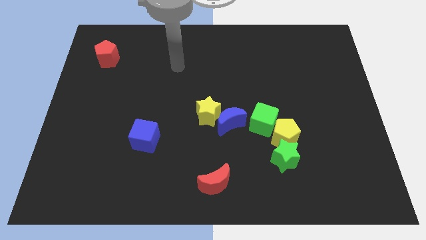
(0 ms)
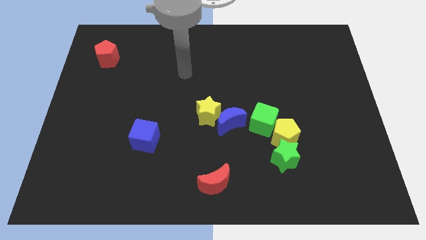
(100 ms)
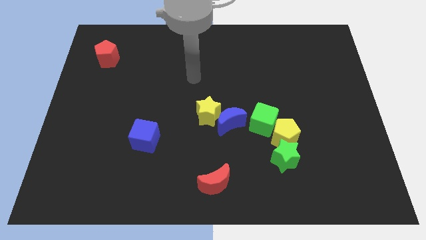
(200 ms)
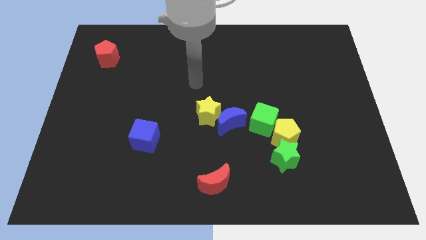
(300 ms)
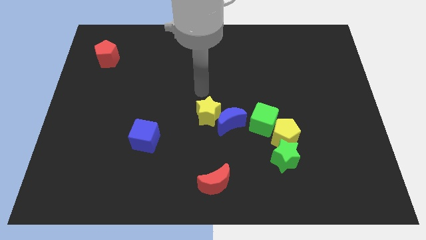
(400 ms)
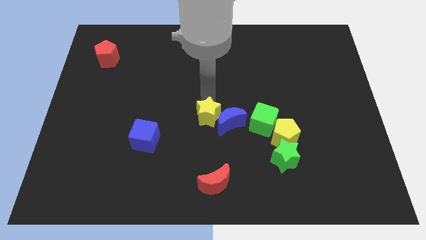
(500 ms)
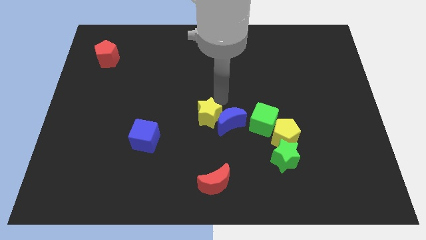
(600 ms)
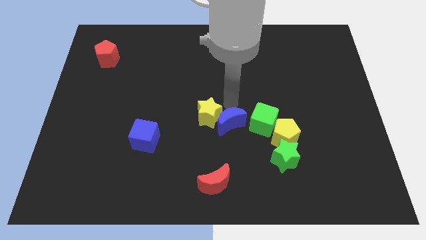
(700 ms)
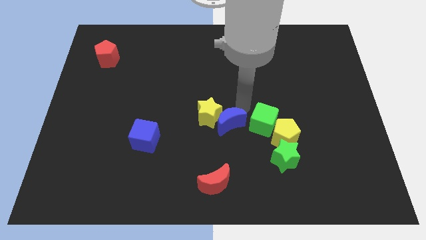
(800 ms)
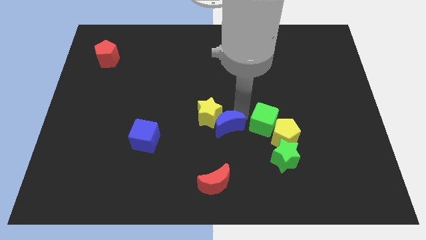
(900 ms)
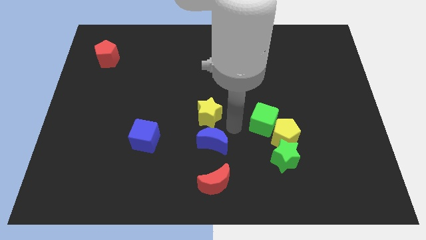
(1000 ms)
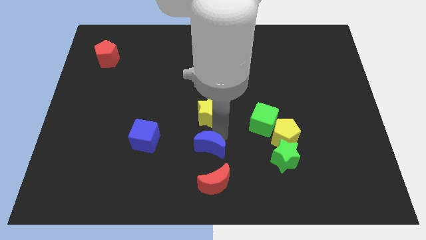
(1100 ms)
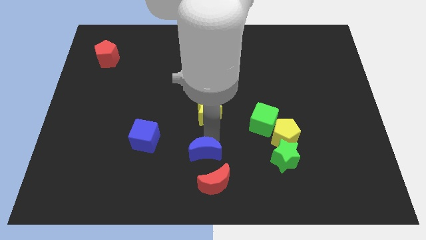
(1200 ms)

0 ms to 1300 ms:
separate the yellow star from the blue moon

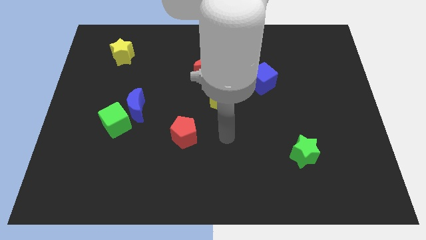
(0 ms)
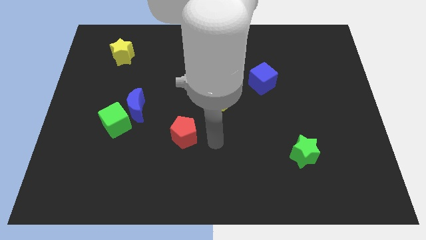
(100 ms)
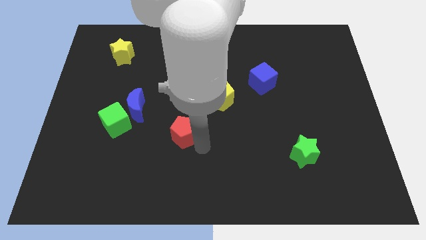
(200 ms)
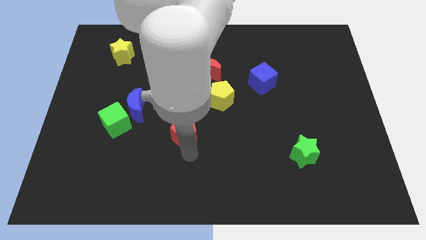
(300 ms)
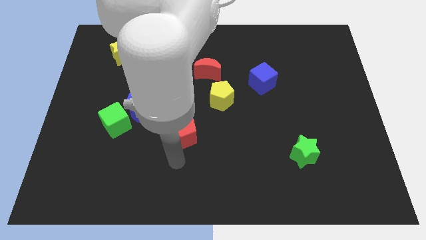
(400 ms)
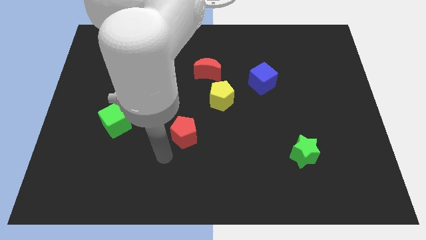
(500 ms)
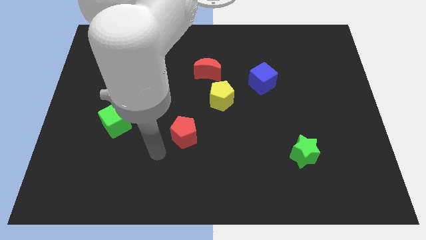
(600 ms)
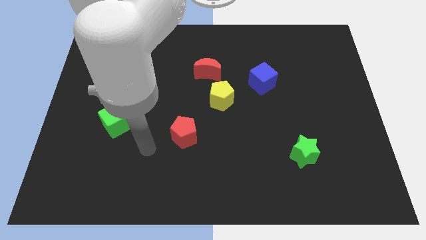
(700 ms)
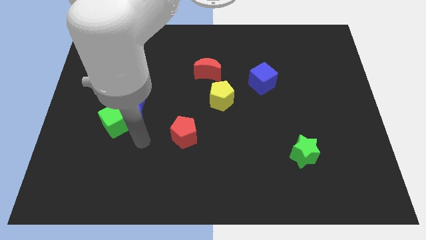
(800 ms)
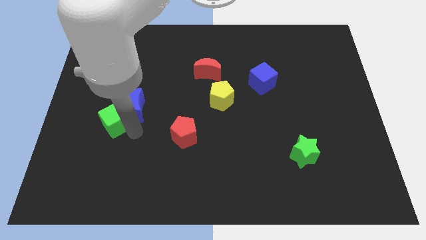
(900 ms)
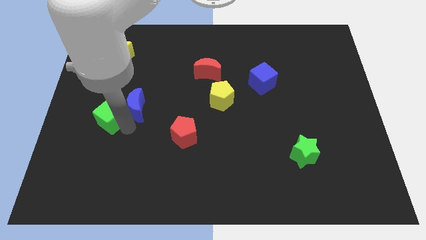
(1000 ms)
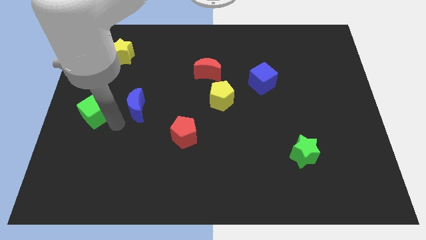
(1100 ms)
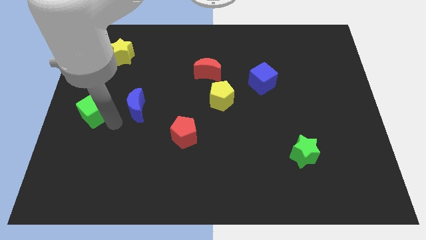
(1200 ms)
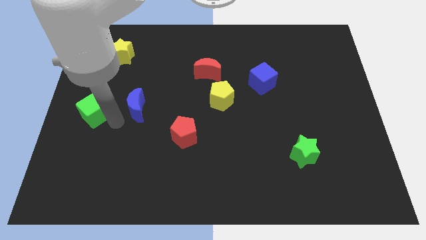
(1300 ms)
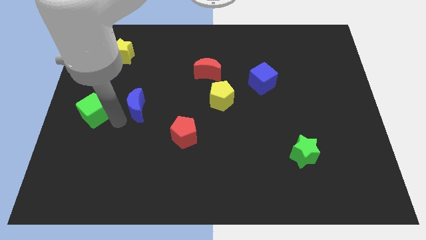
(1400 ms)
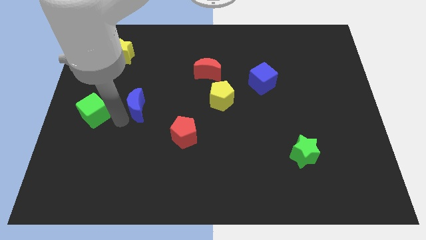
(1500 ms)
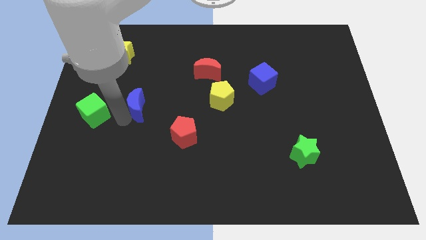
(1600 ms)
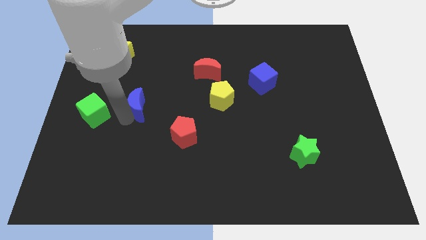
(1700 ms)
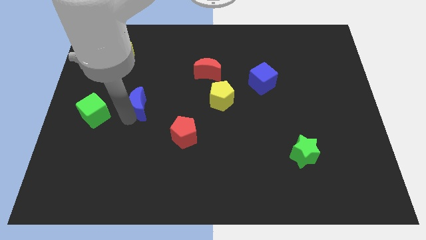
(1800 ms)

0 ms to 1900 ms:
separate the blue moon from the green cube

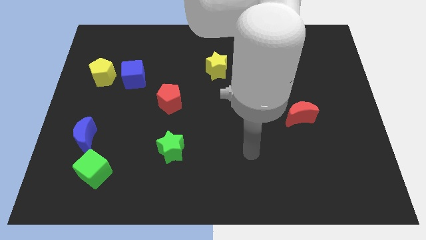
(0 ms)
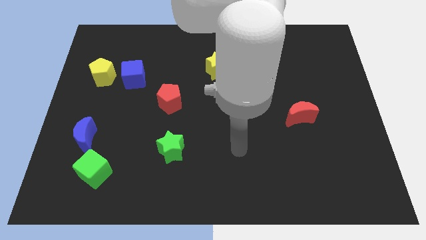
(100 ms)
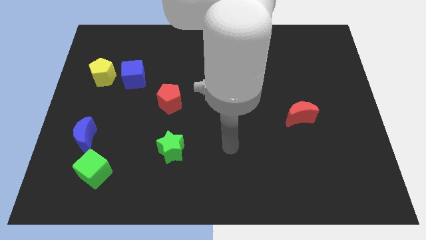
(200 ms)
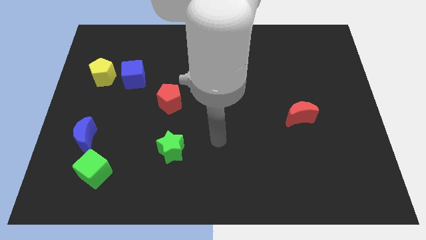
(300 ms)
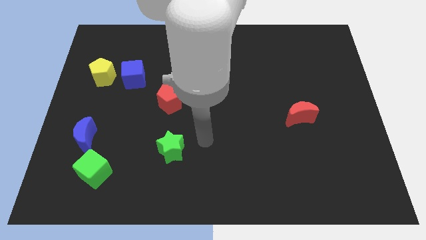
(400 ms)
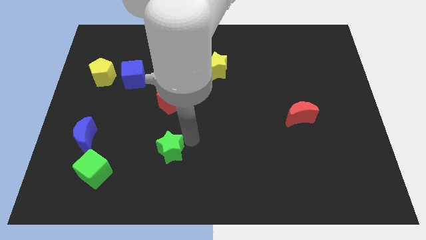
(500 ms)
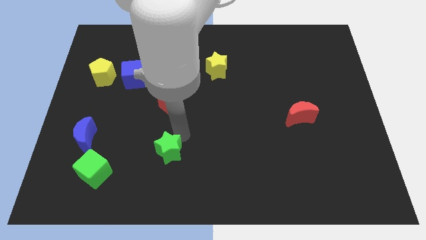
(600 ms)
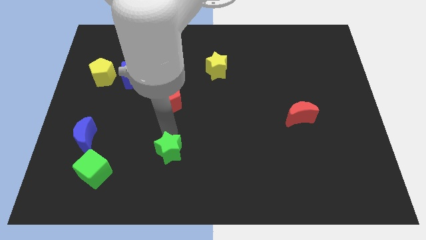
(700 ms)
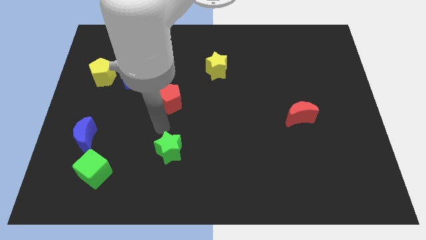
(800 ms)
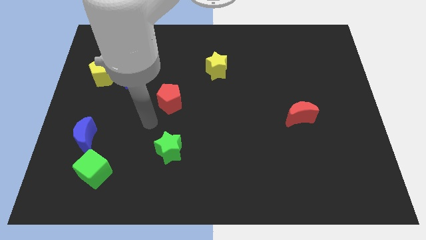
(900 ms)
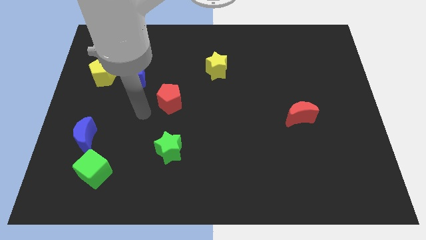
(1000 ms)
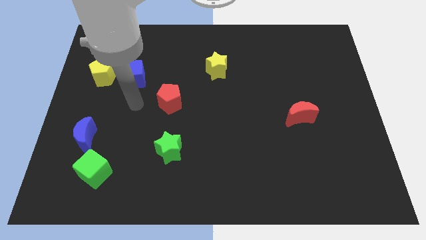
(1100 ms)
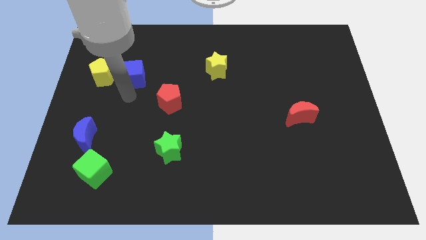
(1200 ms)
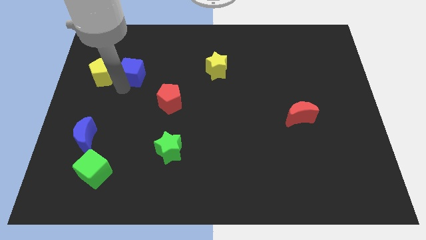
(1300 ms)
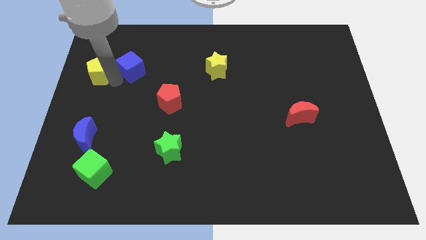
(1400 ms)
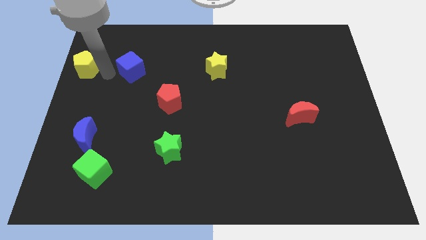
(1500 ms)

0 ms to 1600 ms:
move the blue cube away from the yellow pentagon

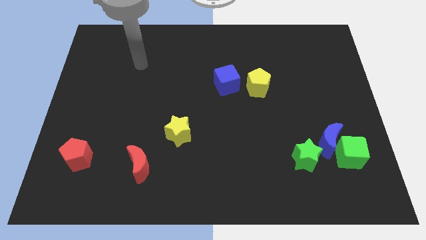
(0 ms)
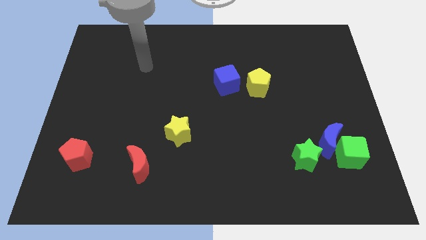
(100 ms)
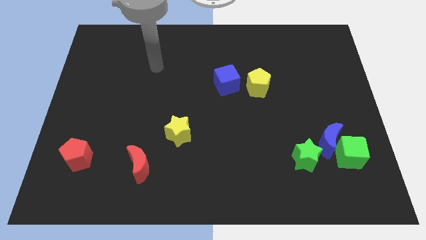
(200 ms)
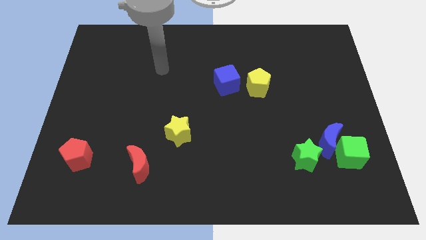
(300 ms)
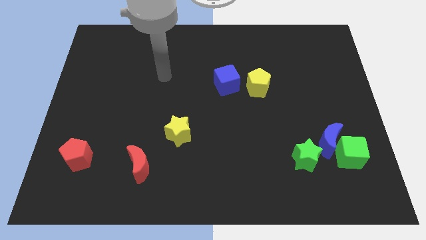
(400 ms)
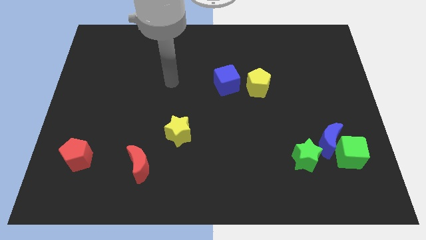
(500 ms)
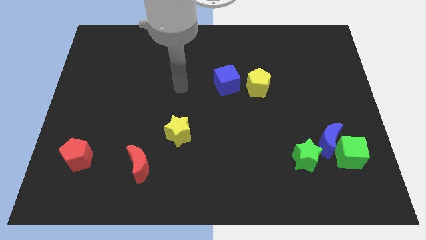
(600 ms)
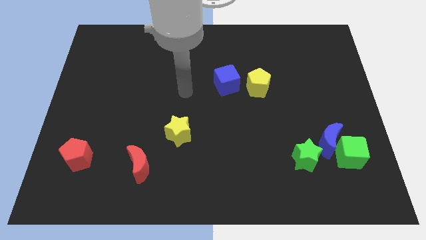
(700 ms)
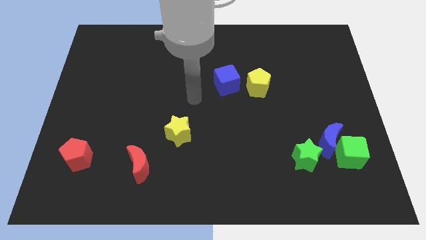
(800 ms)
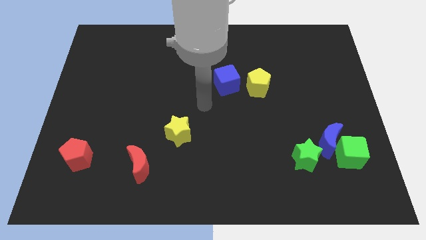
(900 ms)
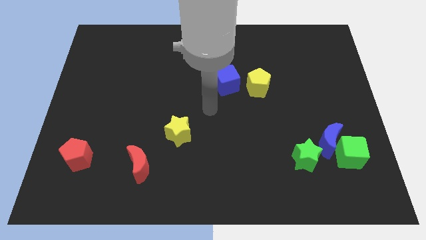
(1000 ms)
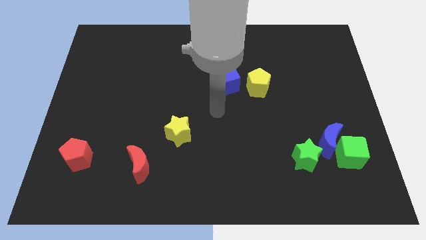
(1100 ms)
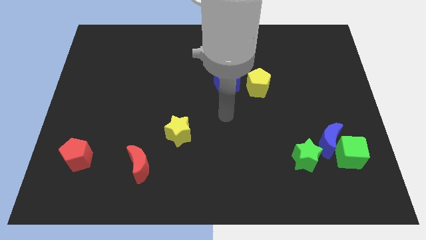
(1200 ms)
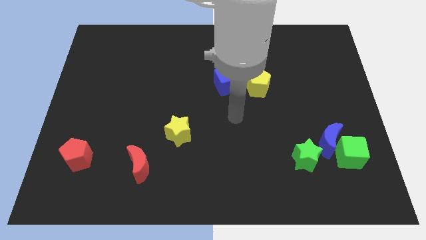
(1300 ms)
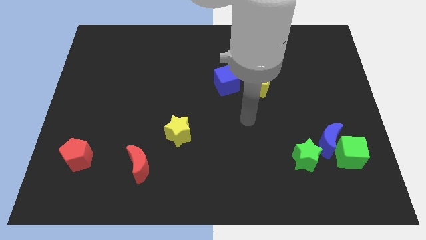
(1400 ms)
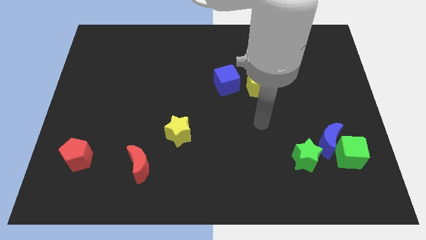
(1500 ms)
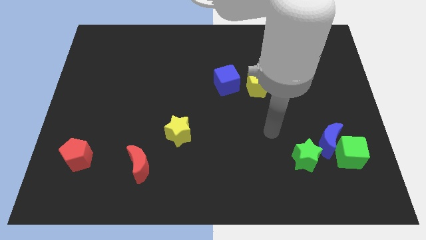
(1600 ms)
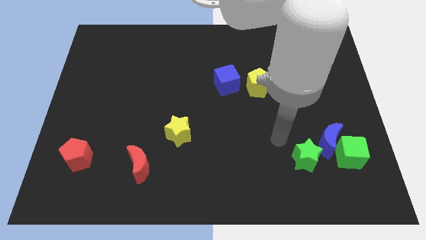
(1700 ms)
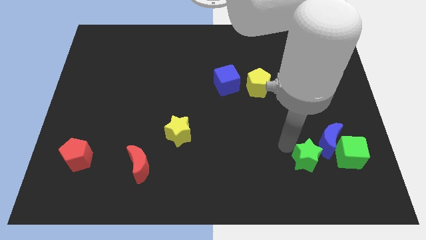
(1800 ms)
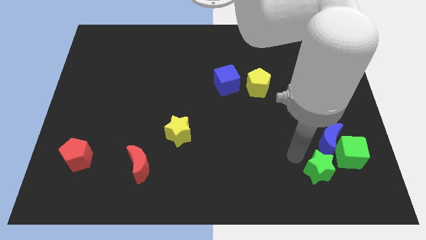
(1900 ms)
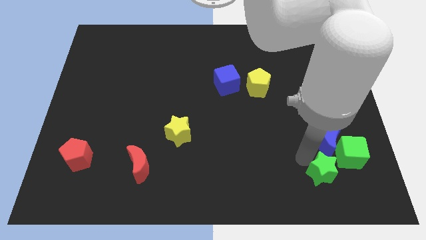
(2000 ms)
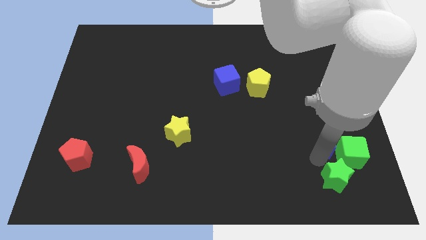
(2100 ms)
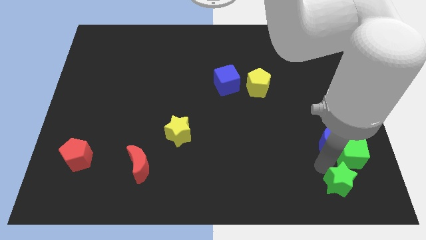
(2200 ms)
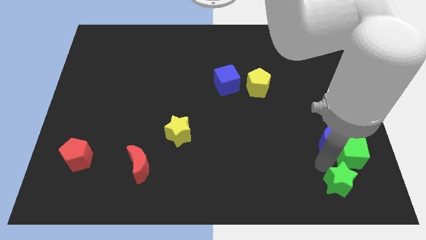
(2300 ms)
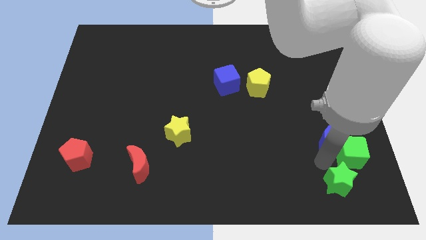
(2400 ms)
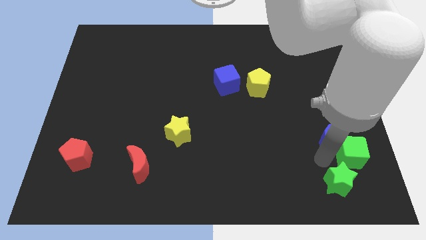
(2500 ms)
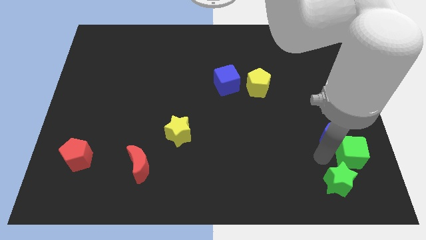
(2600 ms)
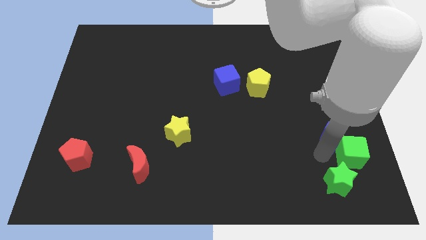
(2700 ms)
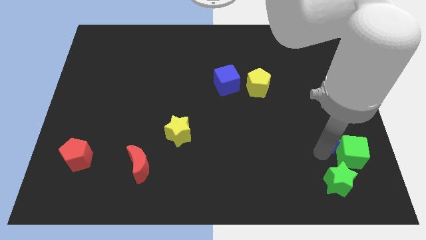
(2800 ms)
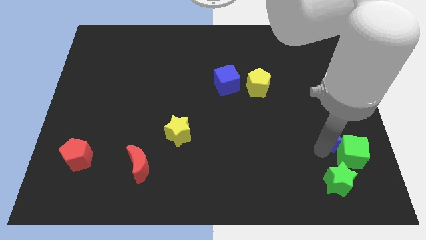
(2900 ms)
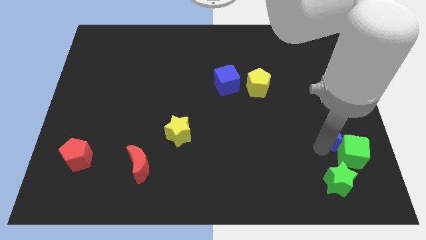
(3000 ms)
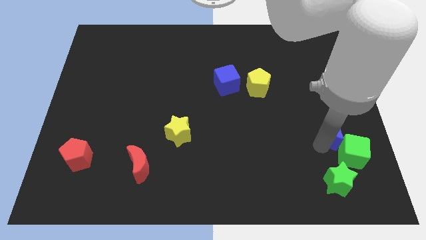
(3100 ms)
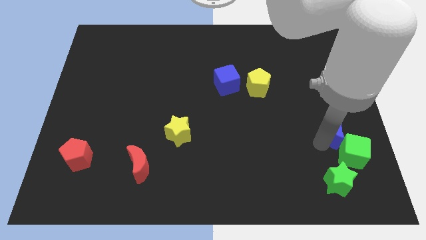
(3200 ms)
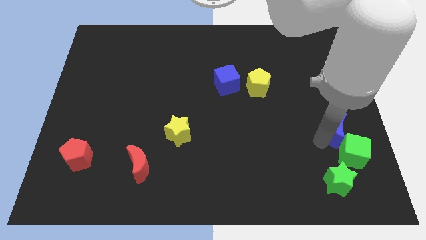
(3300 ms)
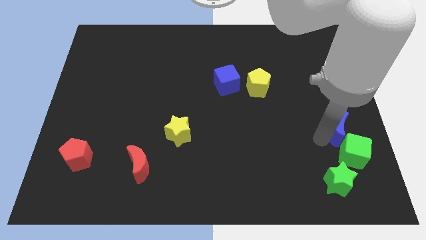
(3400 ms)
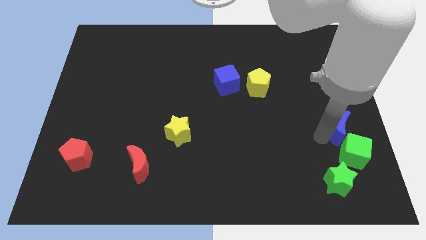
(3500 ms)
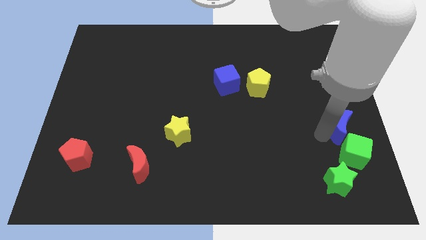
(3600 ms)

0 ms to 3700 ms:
move the blue moon away from the green cube and green star

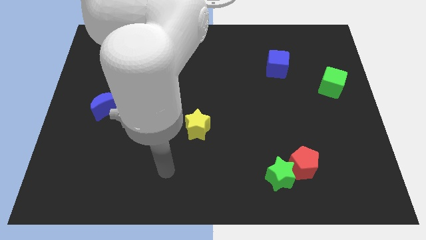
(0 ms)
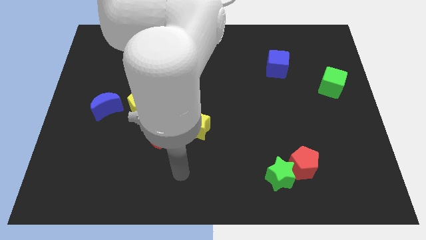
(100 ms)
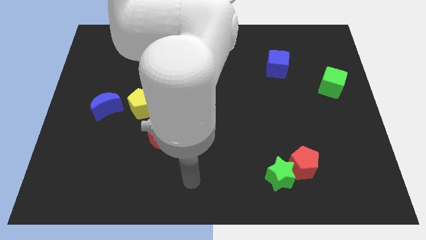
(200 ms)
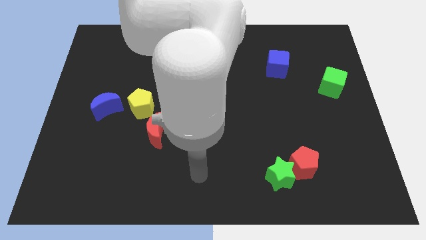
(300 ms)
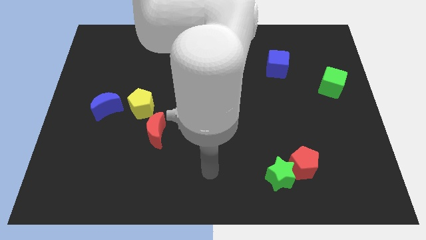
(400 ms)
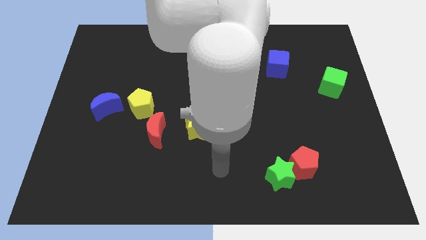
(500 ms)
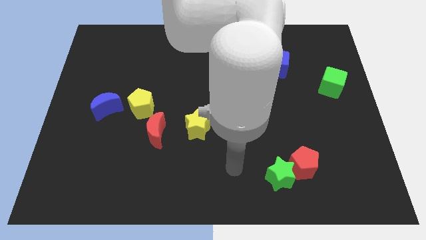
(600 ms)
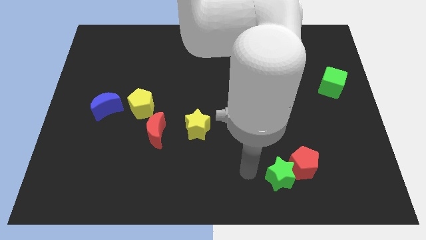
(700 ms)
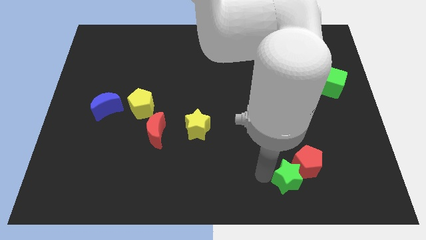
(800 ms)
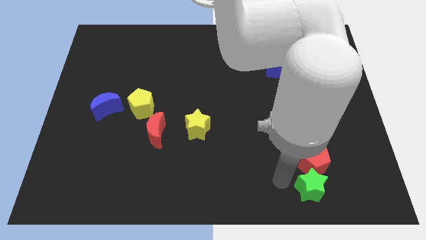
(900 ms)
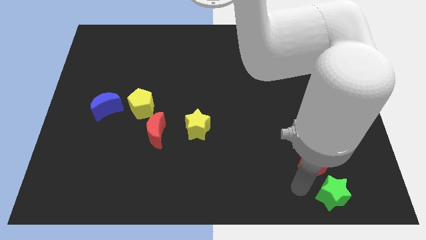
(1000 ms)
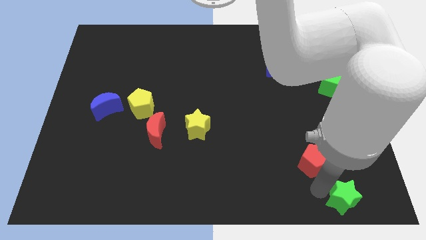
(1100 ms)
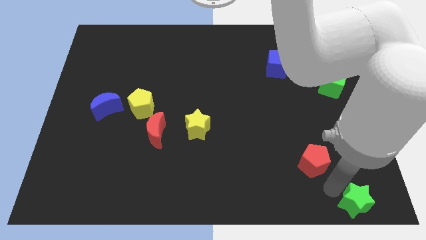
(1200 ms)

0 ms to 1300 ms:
separate the red pentagon from the green star
